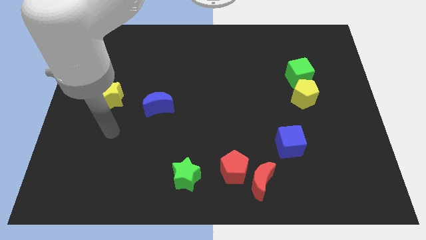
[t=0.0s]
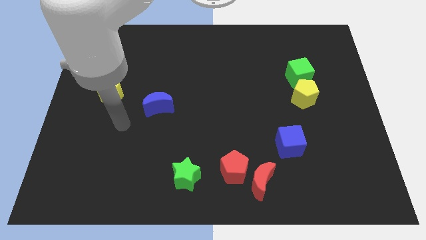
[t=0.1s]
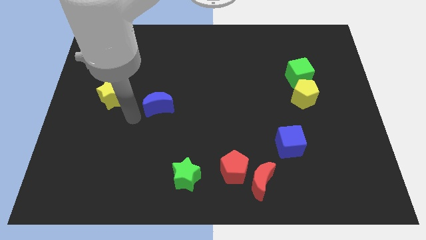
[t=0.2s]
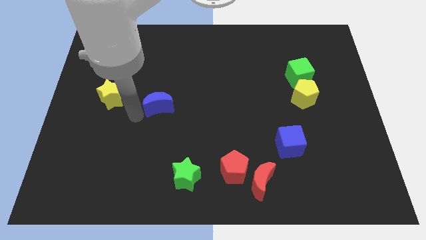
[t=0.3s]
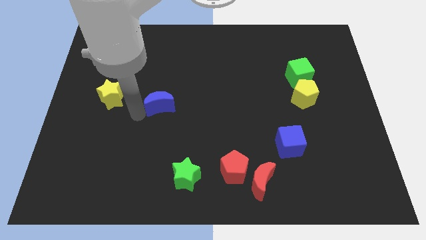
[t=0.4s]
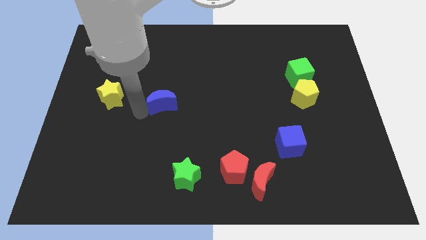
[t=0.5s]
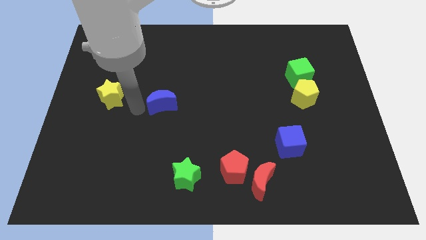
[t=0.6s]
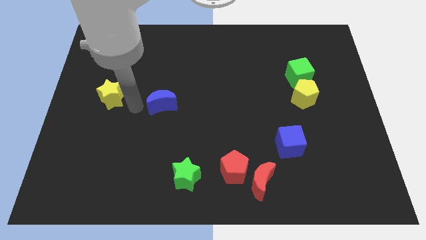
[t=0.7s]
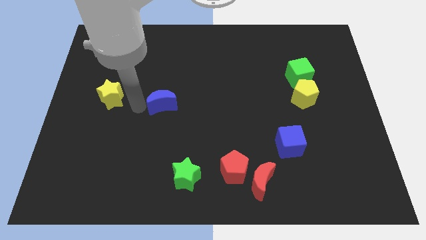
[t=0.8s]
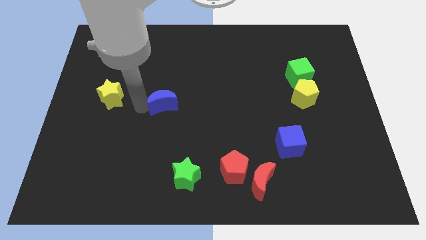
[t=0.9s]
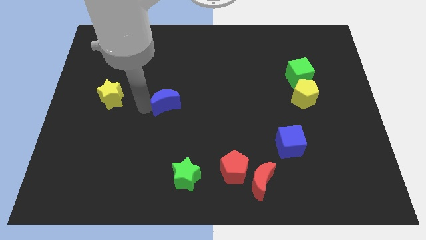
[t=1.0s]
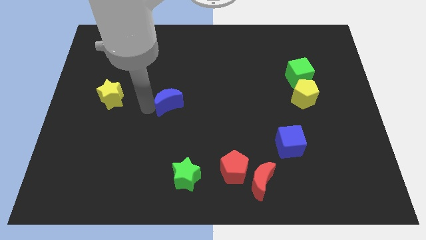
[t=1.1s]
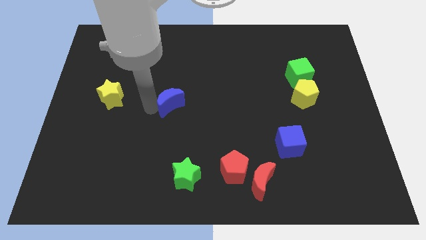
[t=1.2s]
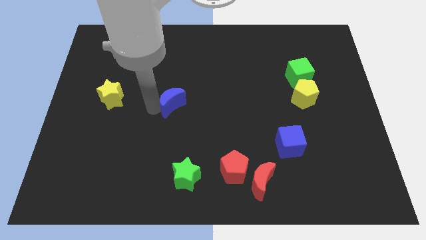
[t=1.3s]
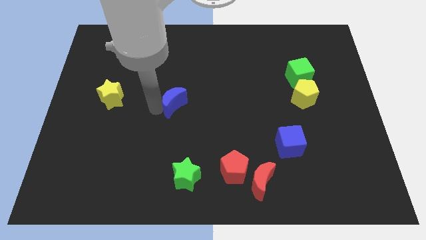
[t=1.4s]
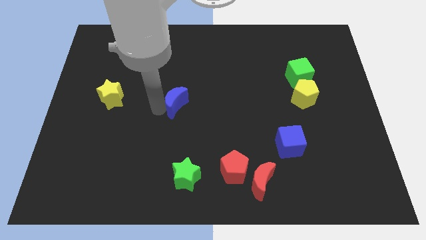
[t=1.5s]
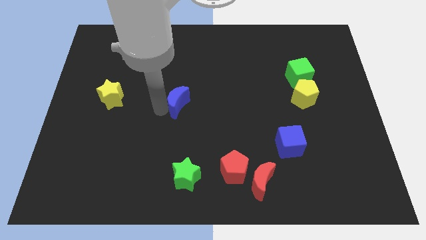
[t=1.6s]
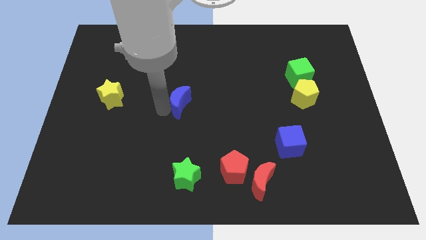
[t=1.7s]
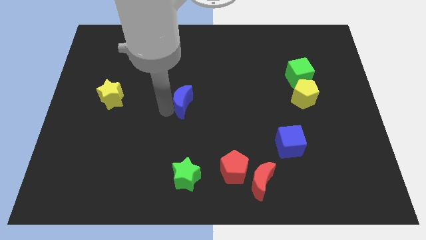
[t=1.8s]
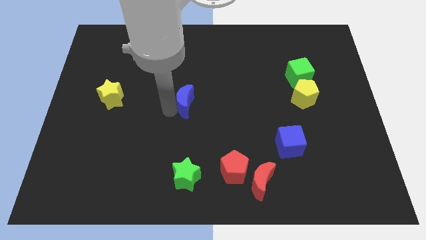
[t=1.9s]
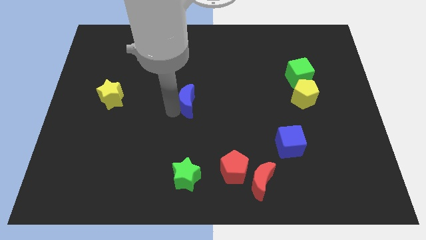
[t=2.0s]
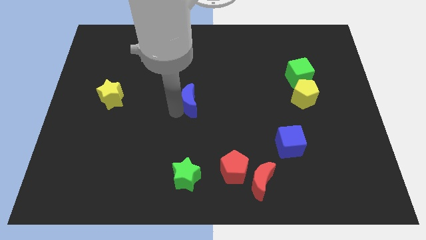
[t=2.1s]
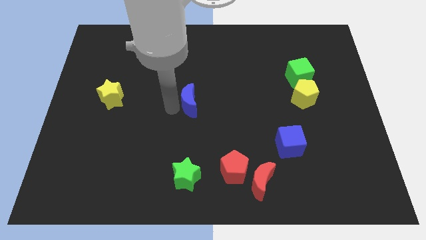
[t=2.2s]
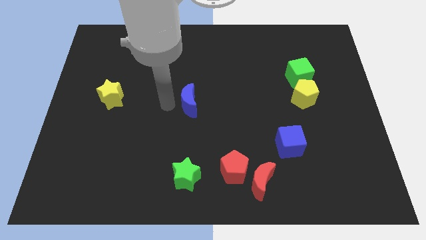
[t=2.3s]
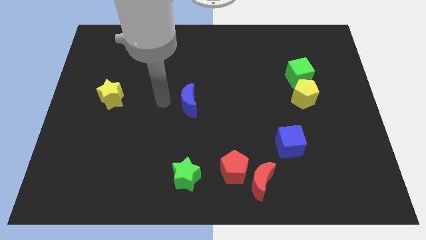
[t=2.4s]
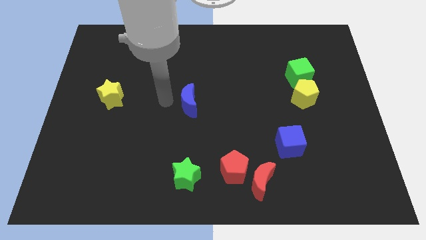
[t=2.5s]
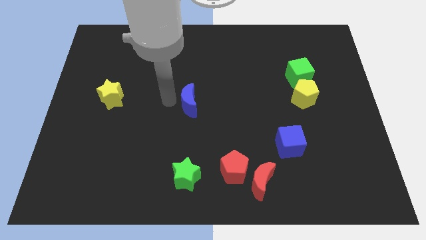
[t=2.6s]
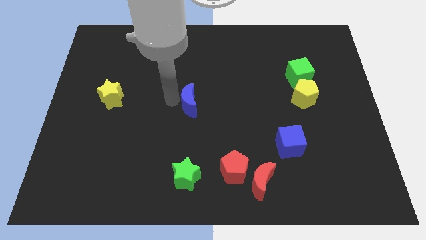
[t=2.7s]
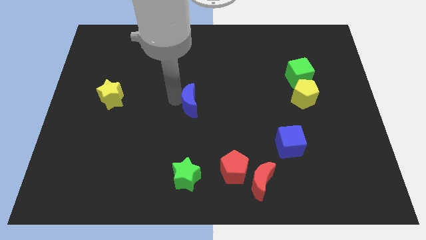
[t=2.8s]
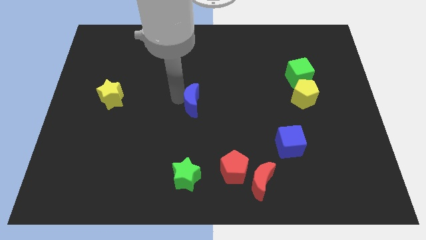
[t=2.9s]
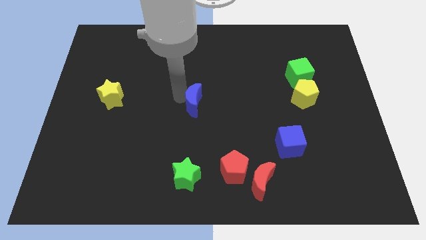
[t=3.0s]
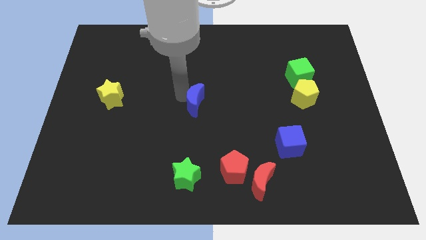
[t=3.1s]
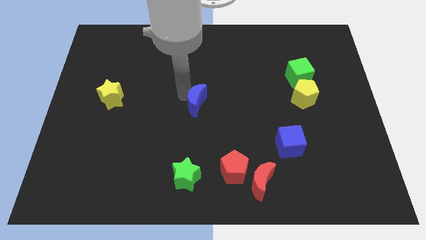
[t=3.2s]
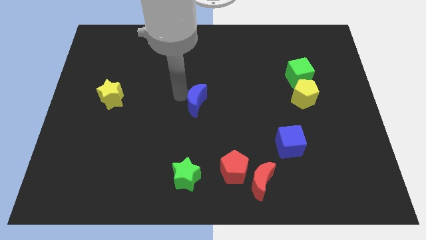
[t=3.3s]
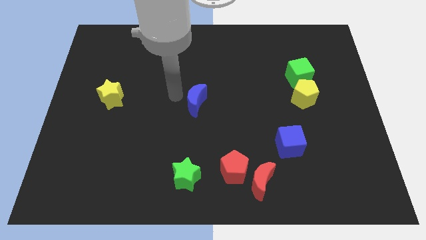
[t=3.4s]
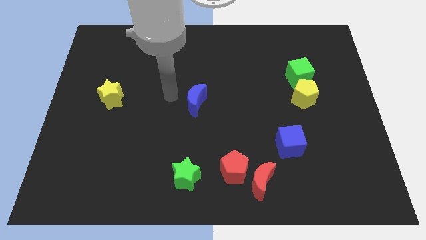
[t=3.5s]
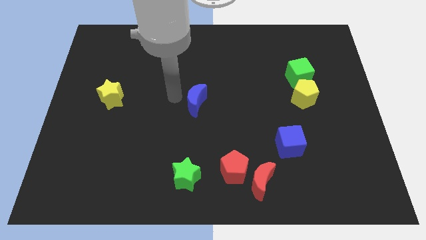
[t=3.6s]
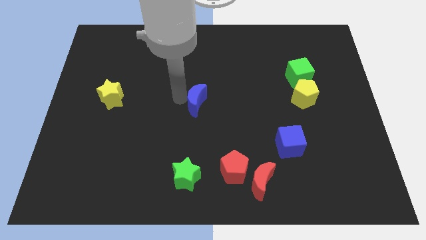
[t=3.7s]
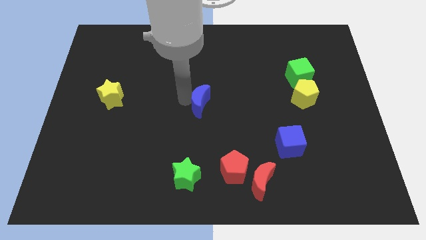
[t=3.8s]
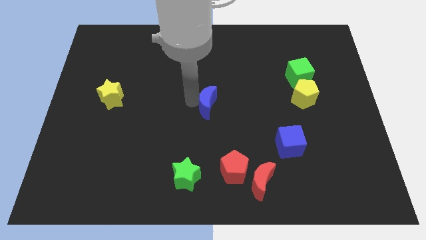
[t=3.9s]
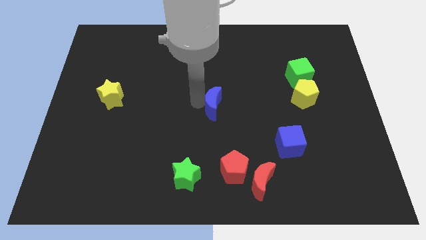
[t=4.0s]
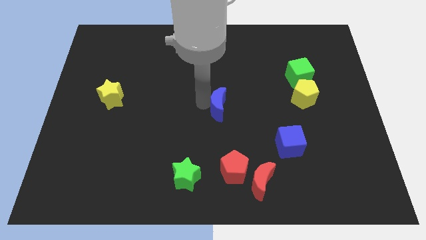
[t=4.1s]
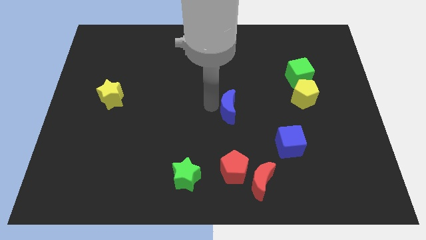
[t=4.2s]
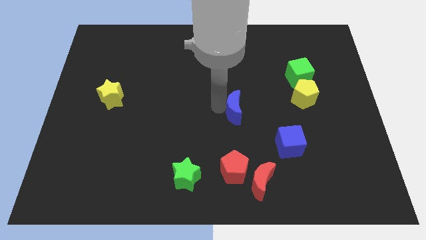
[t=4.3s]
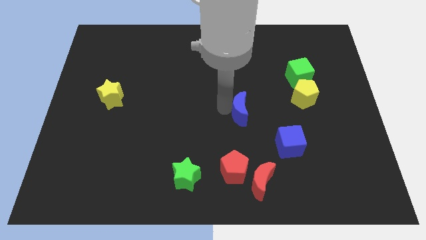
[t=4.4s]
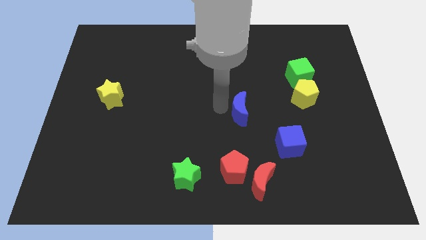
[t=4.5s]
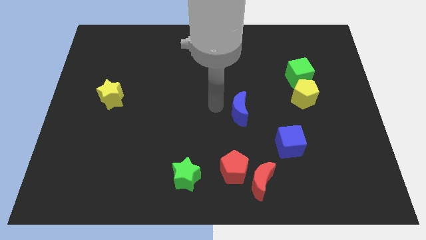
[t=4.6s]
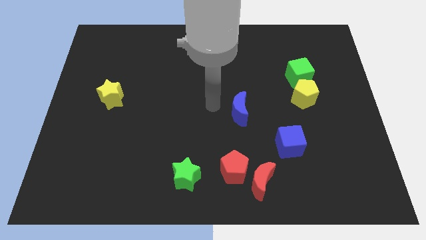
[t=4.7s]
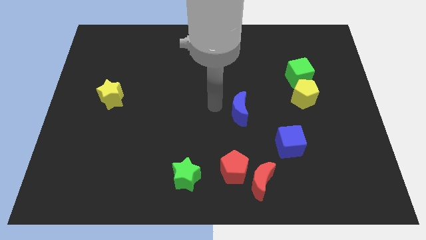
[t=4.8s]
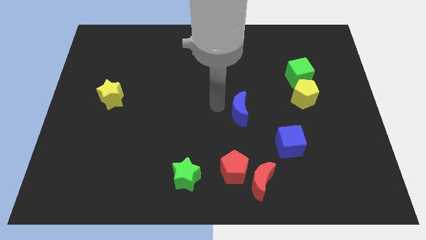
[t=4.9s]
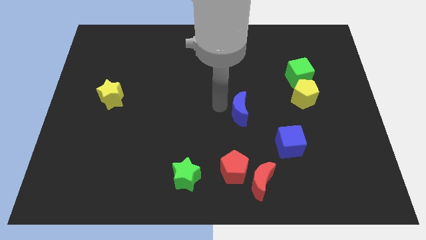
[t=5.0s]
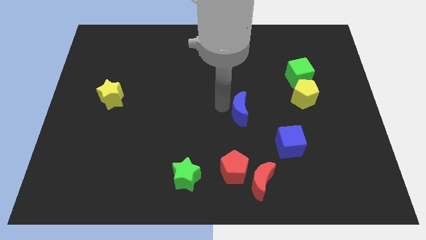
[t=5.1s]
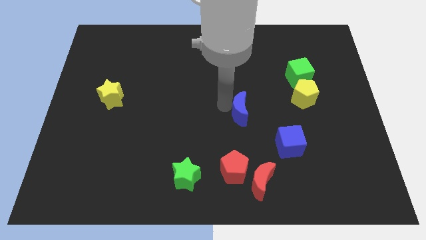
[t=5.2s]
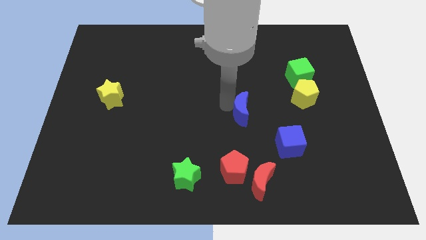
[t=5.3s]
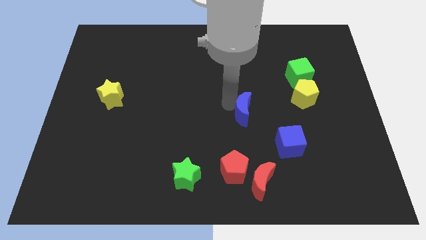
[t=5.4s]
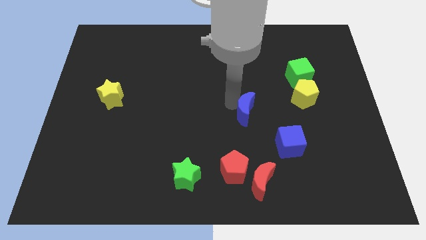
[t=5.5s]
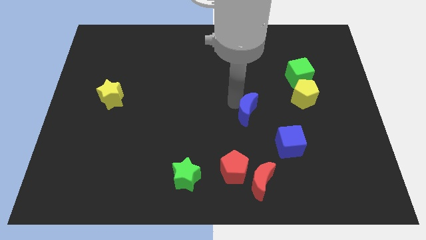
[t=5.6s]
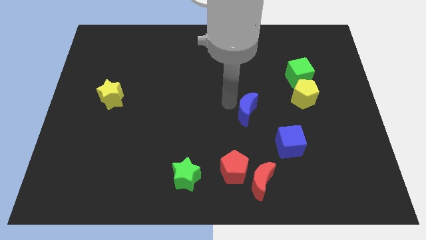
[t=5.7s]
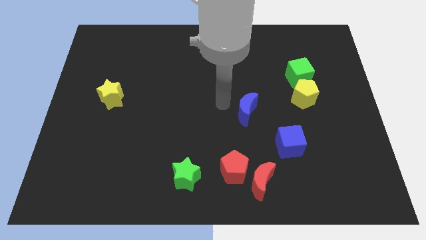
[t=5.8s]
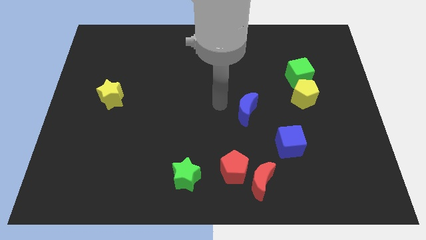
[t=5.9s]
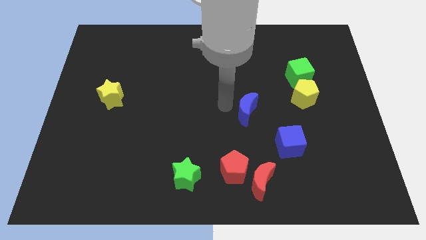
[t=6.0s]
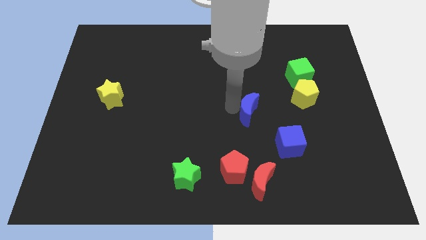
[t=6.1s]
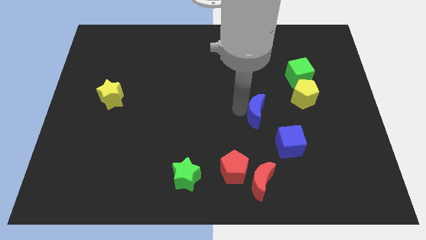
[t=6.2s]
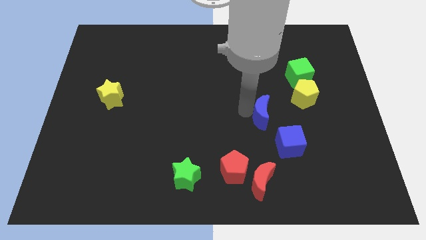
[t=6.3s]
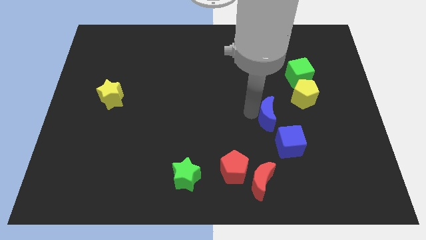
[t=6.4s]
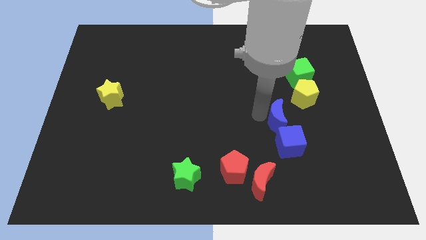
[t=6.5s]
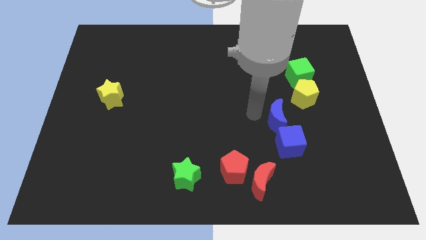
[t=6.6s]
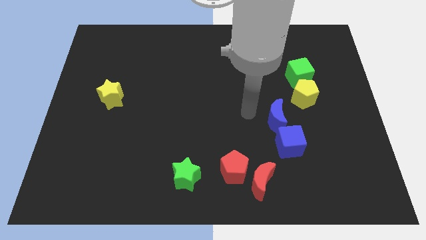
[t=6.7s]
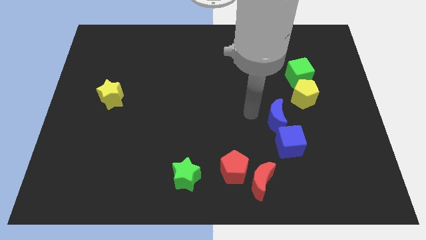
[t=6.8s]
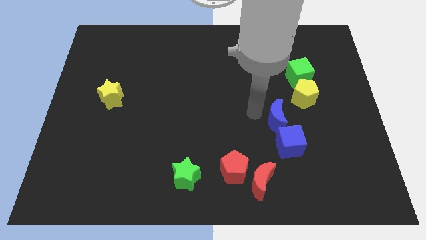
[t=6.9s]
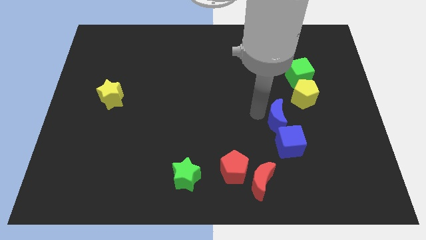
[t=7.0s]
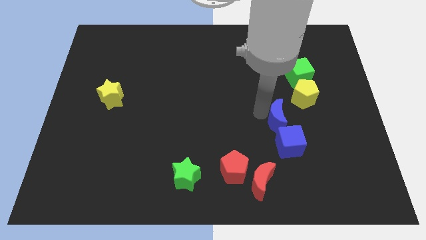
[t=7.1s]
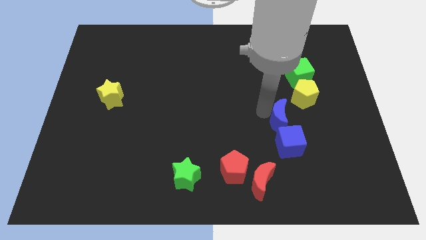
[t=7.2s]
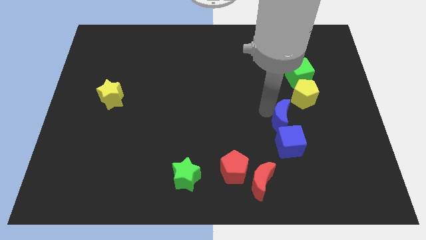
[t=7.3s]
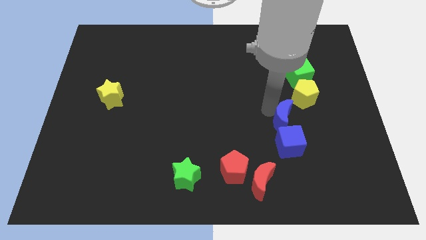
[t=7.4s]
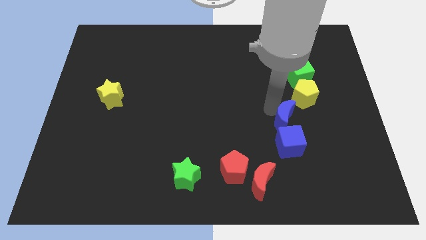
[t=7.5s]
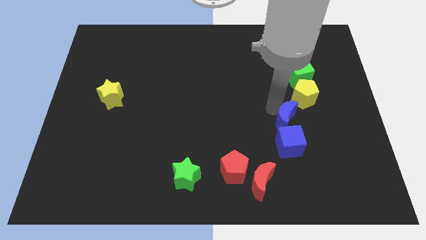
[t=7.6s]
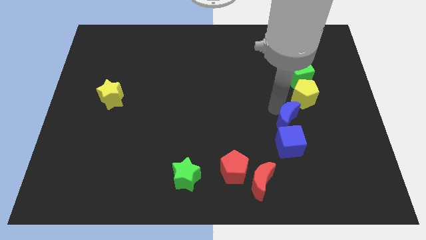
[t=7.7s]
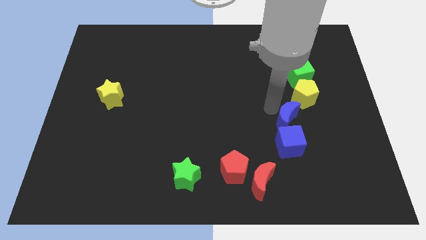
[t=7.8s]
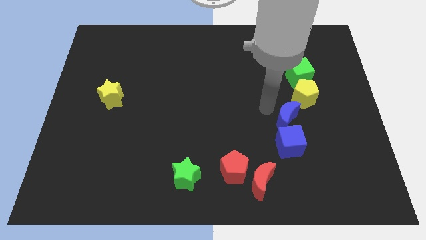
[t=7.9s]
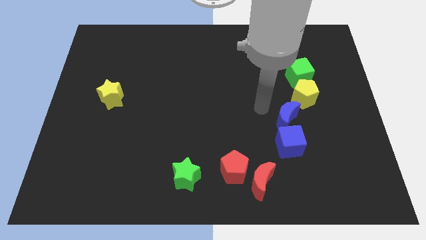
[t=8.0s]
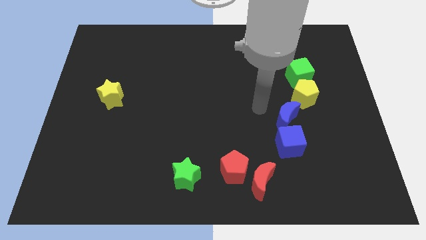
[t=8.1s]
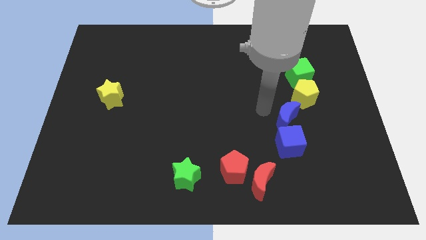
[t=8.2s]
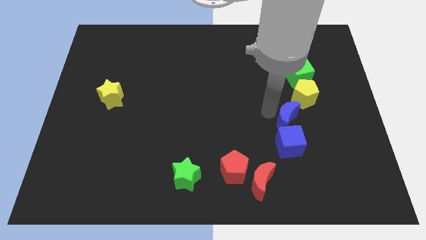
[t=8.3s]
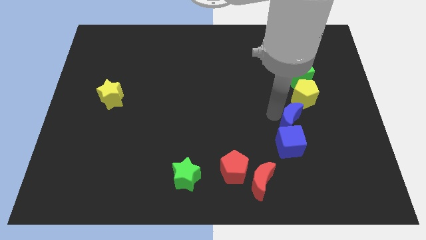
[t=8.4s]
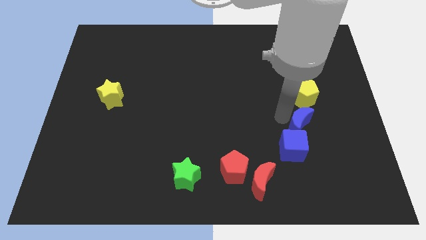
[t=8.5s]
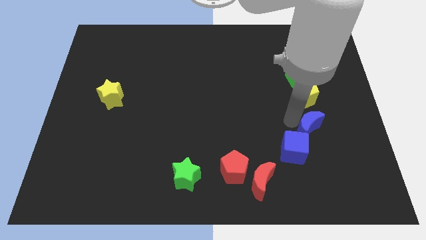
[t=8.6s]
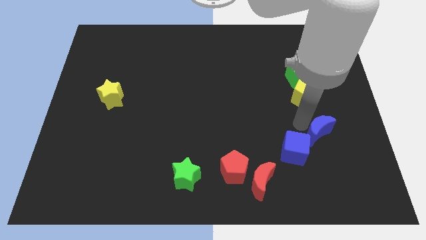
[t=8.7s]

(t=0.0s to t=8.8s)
slide the blue moon to the right of the blue cube
